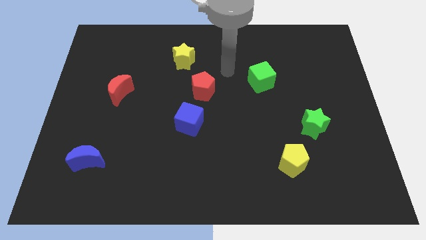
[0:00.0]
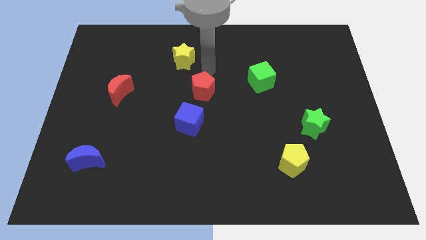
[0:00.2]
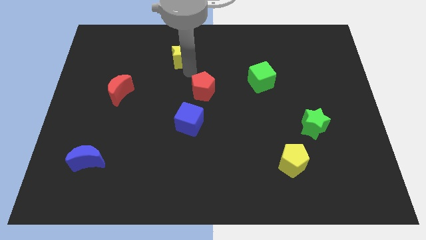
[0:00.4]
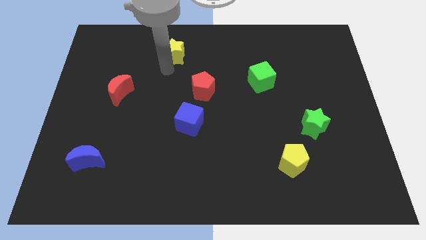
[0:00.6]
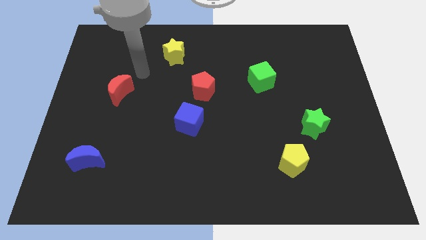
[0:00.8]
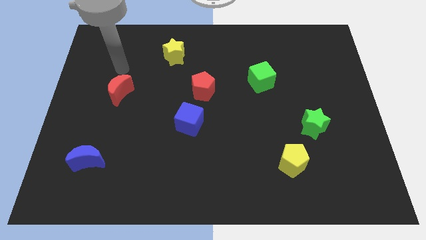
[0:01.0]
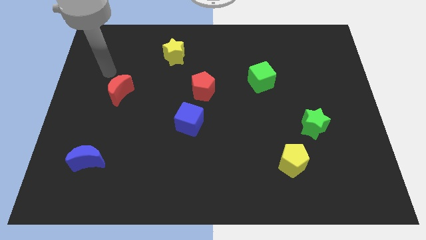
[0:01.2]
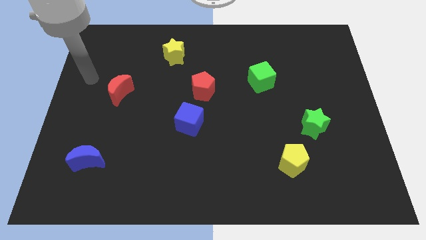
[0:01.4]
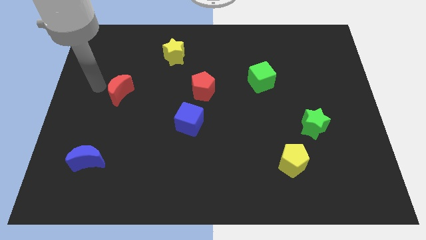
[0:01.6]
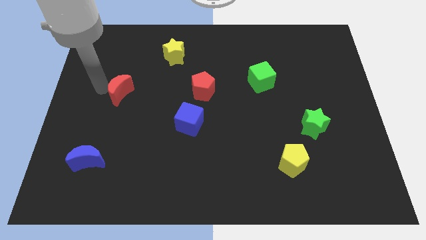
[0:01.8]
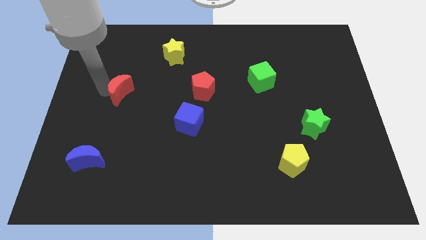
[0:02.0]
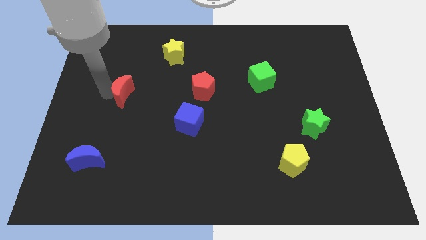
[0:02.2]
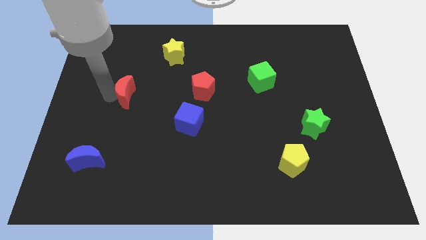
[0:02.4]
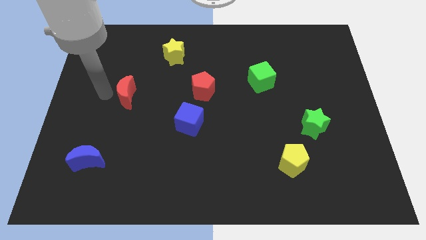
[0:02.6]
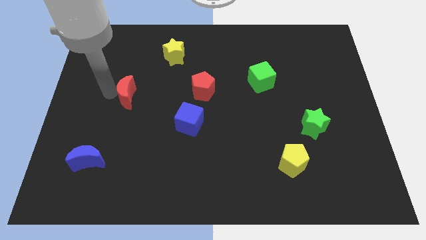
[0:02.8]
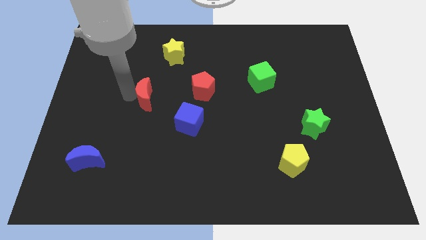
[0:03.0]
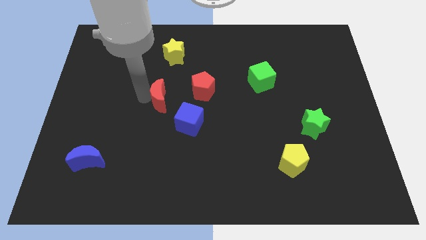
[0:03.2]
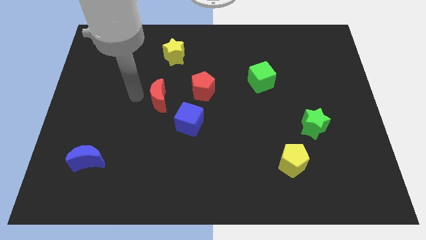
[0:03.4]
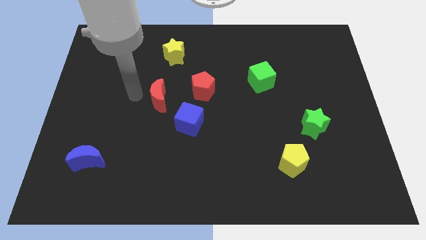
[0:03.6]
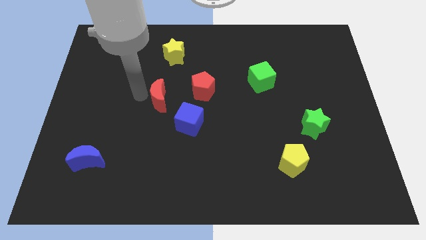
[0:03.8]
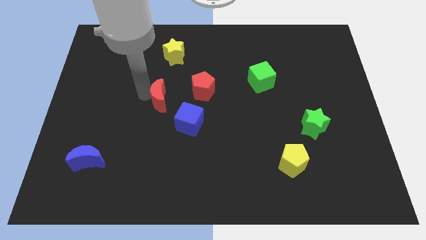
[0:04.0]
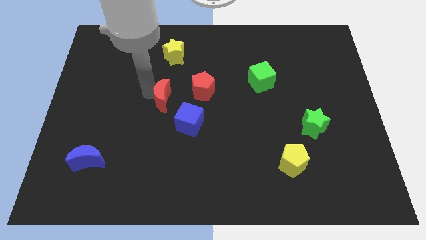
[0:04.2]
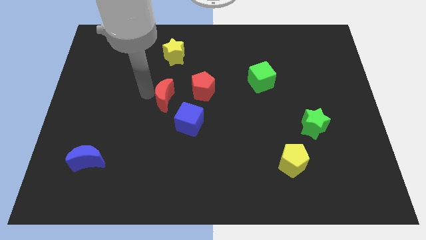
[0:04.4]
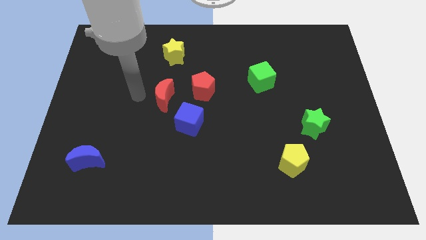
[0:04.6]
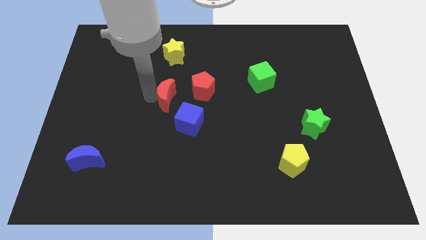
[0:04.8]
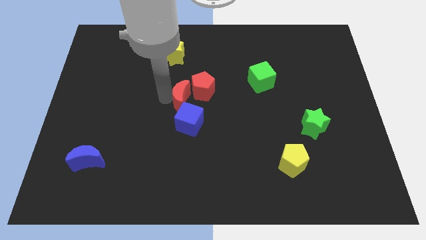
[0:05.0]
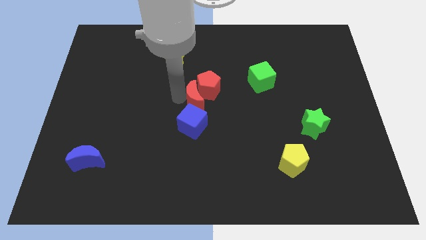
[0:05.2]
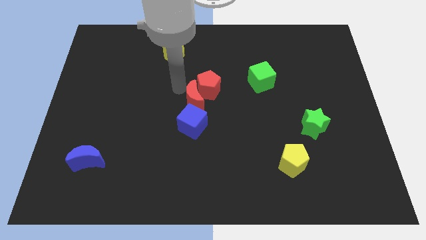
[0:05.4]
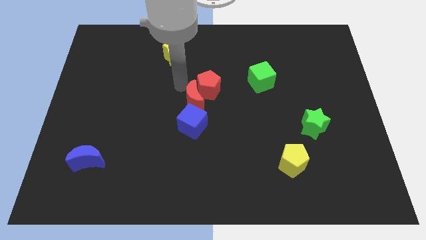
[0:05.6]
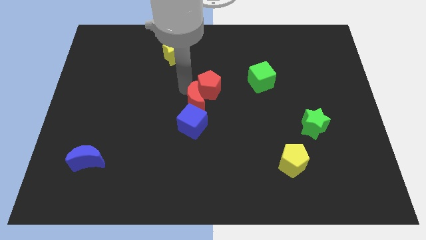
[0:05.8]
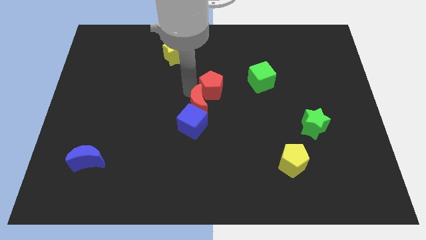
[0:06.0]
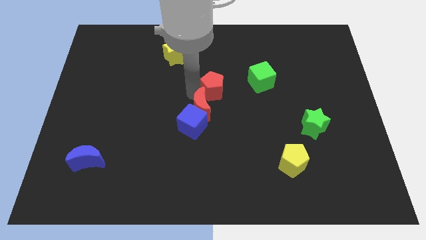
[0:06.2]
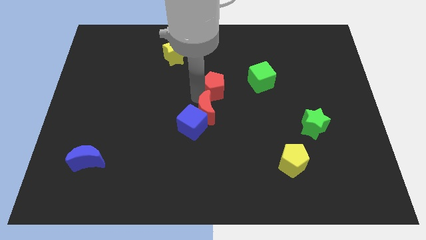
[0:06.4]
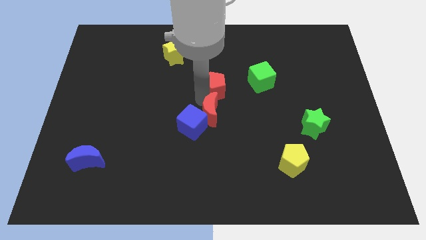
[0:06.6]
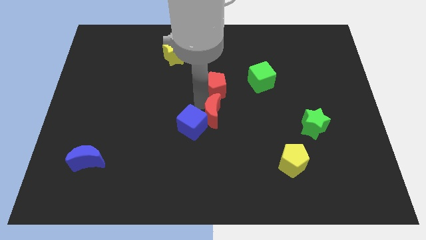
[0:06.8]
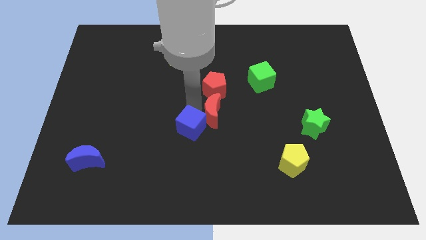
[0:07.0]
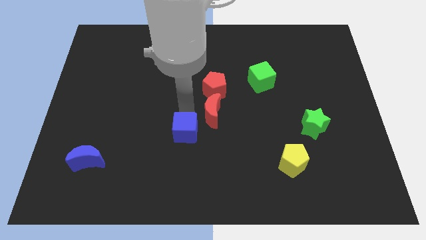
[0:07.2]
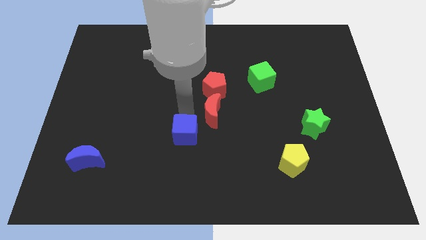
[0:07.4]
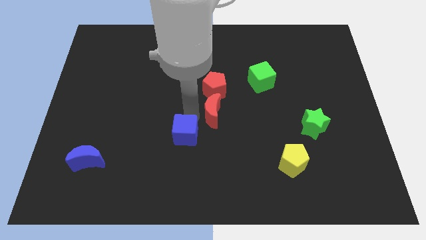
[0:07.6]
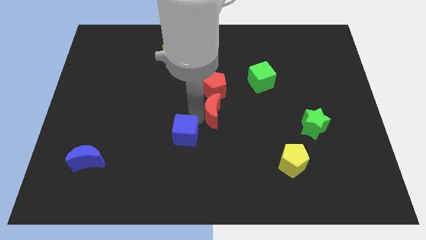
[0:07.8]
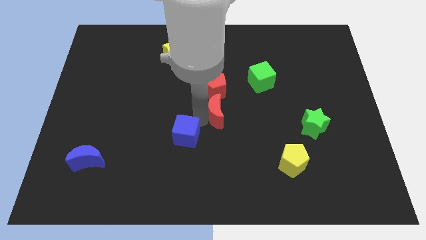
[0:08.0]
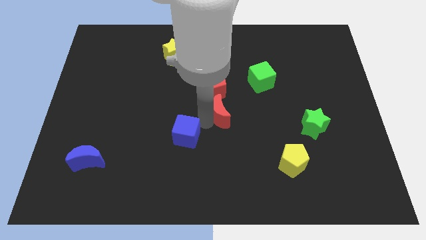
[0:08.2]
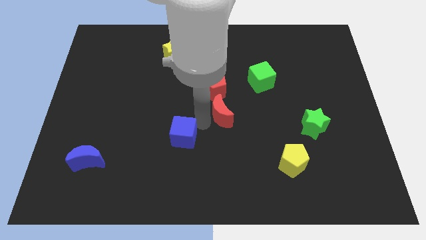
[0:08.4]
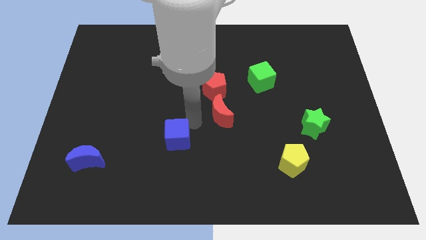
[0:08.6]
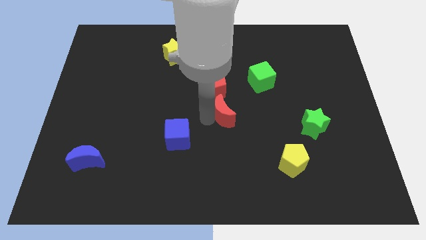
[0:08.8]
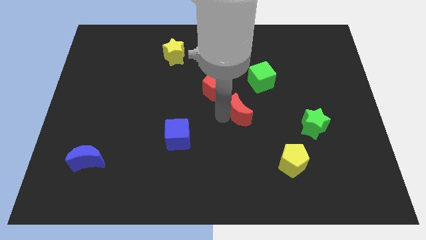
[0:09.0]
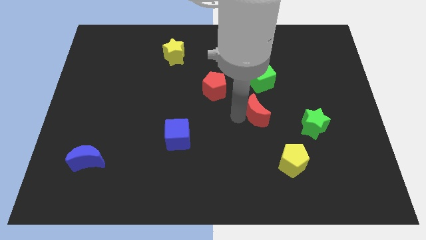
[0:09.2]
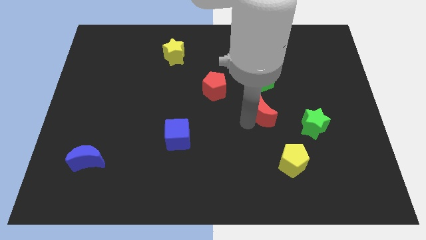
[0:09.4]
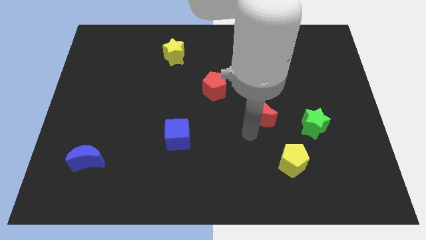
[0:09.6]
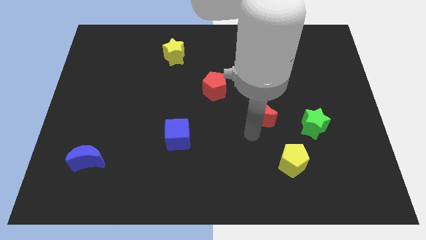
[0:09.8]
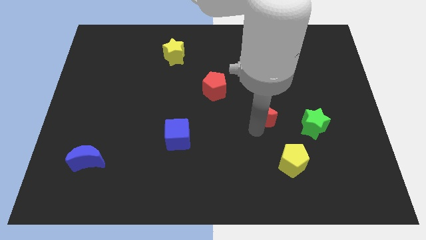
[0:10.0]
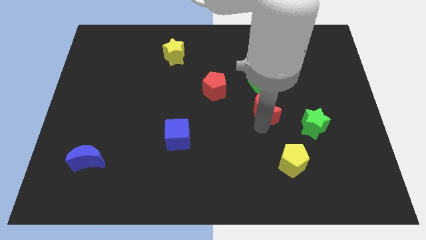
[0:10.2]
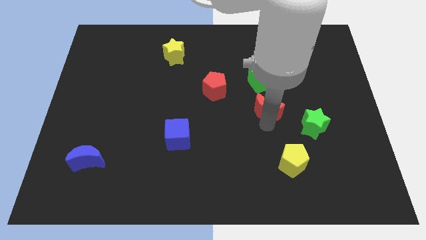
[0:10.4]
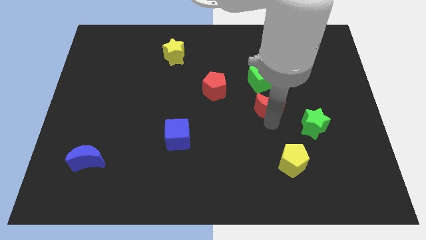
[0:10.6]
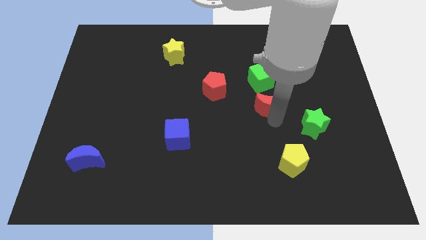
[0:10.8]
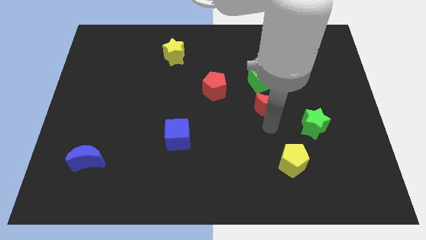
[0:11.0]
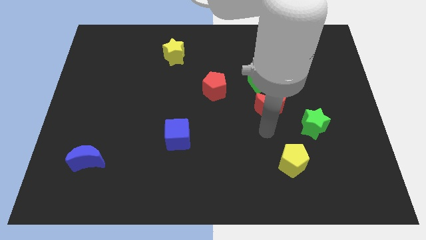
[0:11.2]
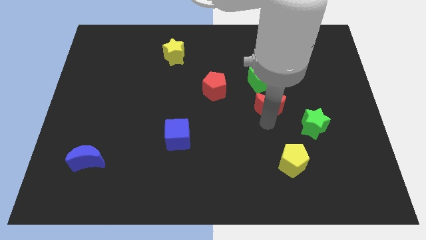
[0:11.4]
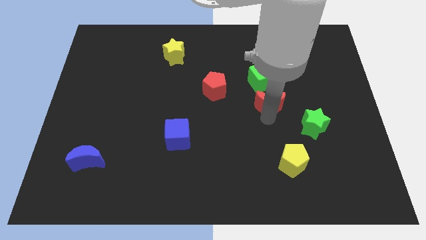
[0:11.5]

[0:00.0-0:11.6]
move the red moon diagonally down and to the right of the green cube
